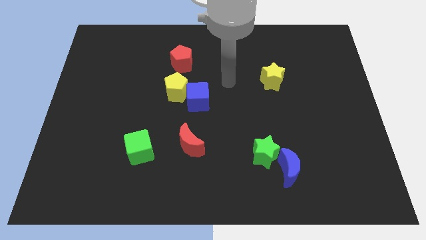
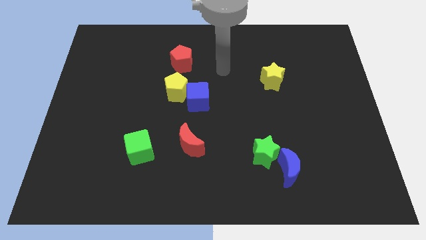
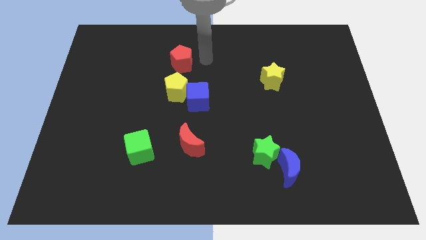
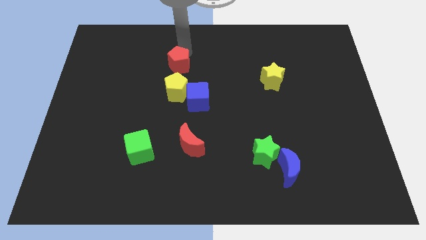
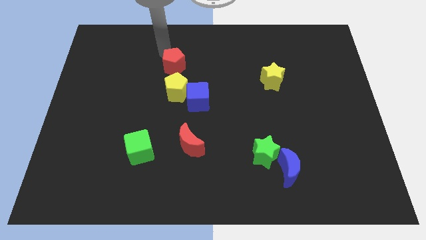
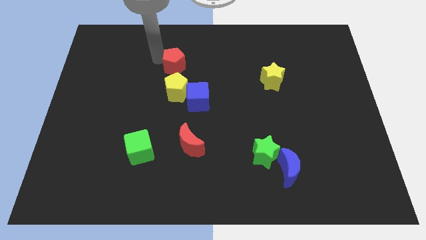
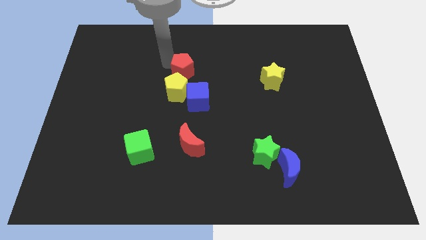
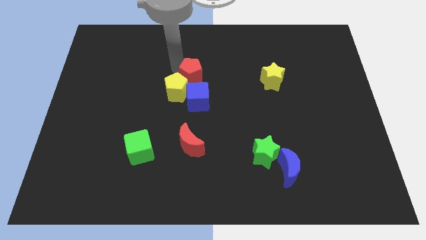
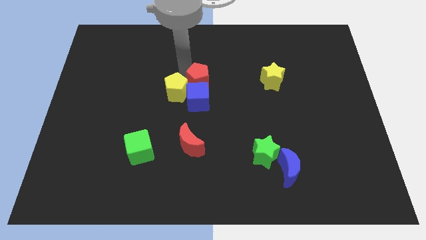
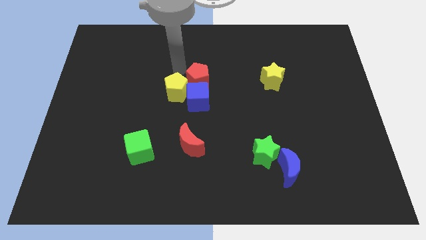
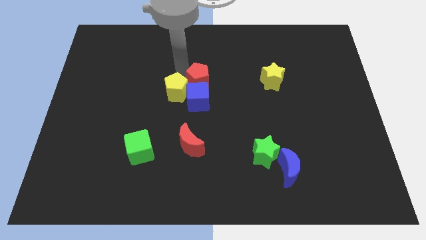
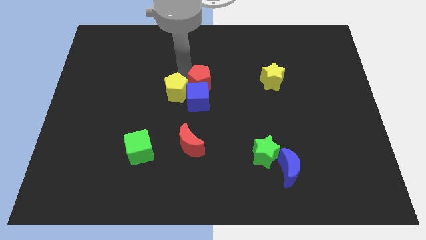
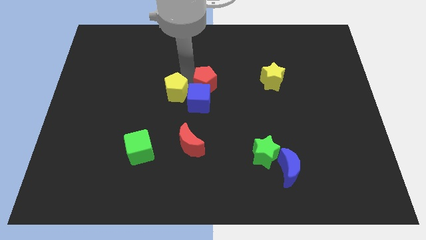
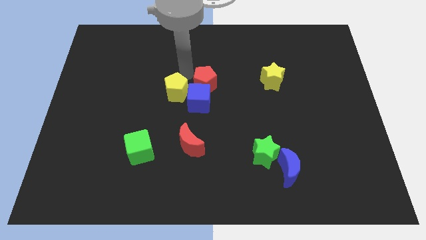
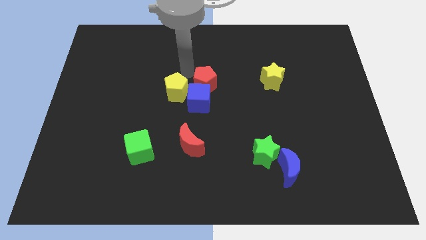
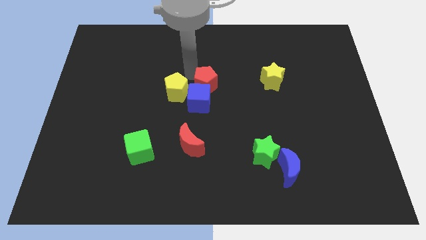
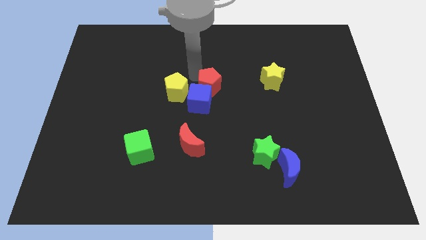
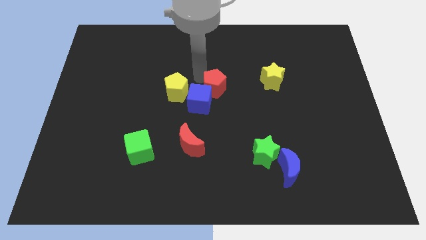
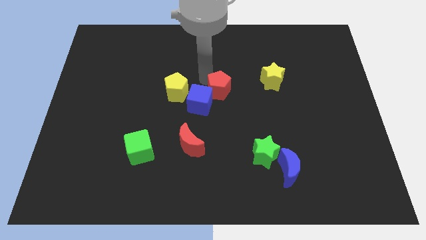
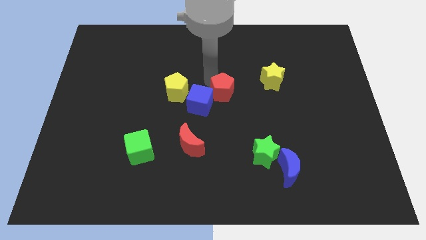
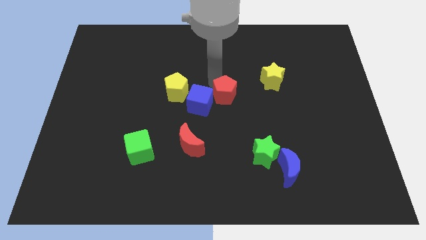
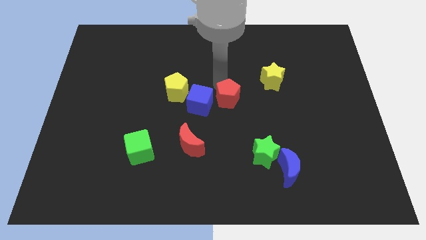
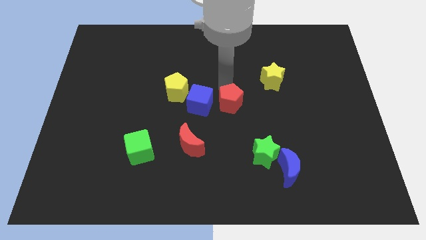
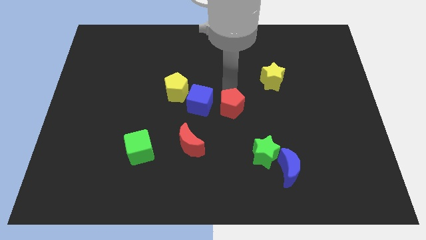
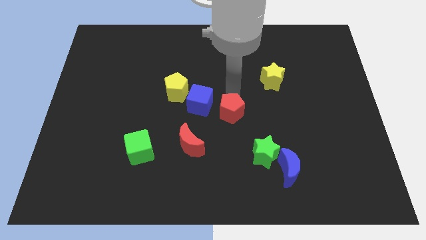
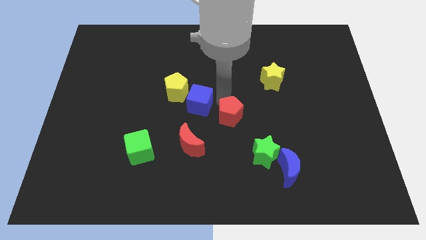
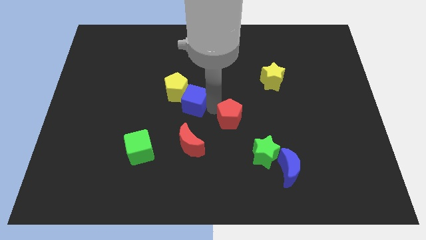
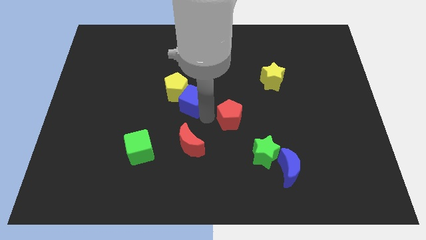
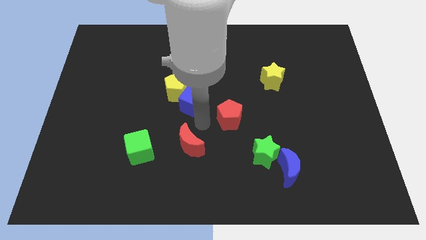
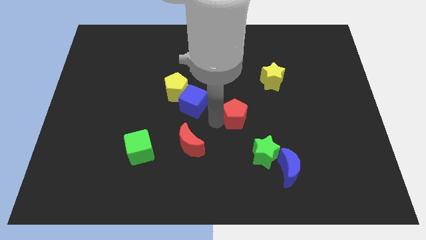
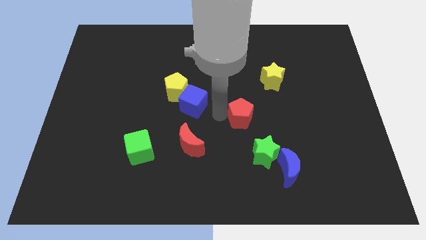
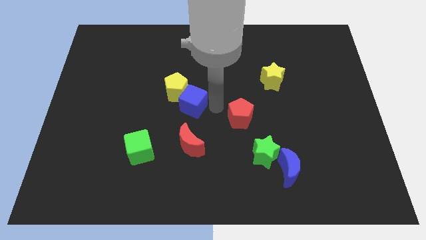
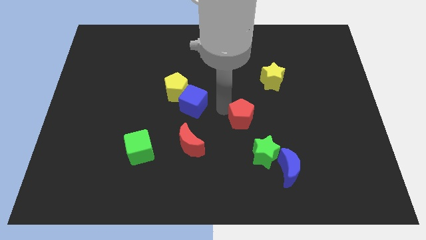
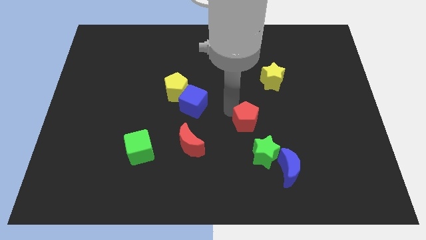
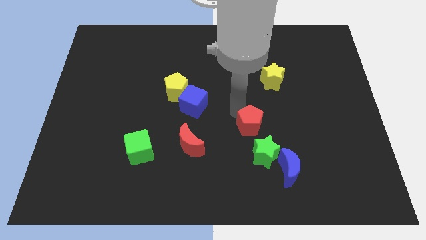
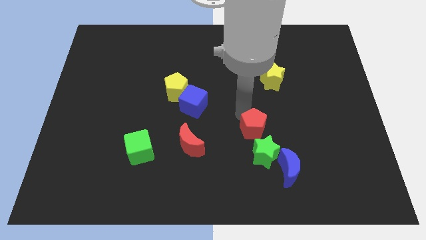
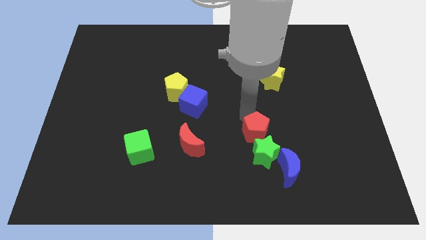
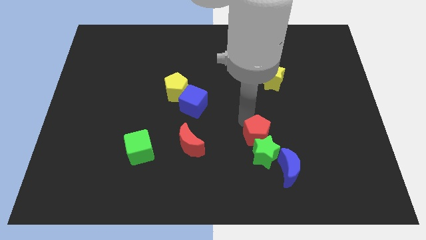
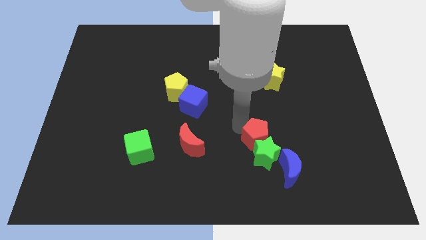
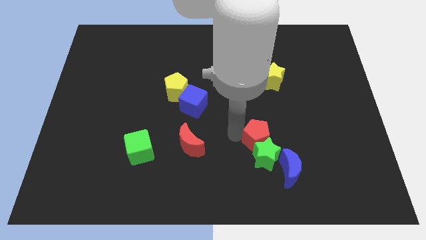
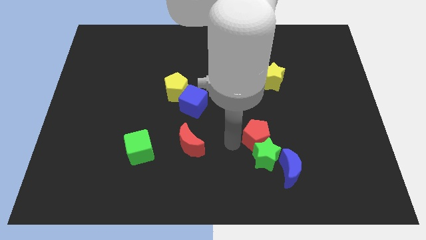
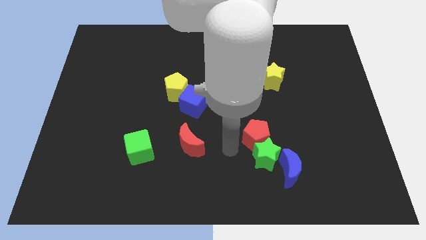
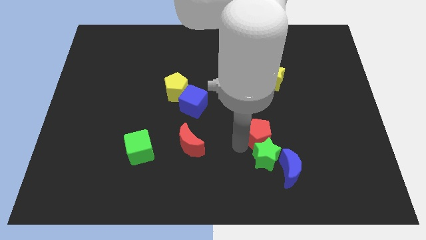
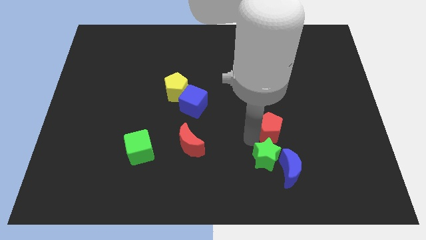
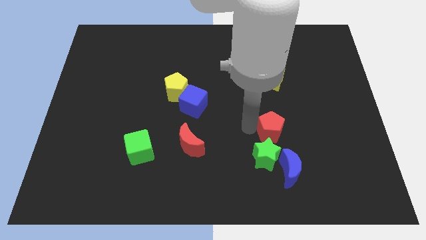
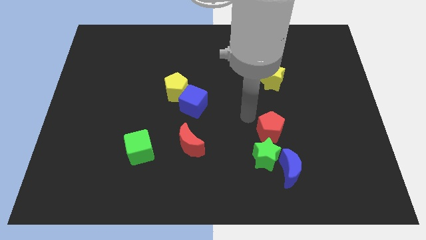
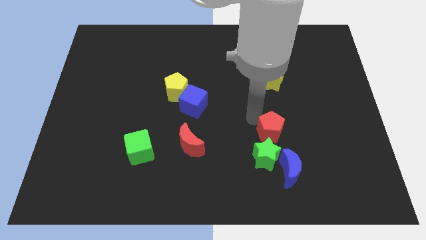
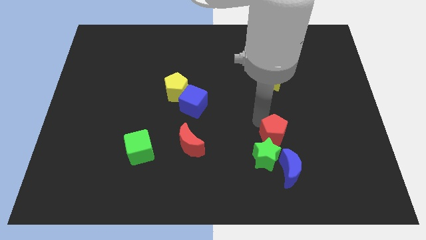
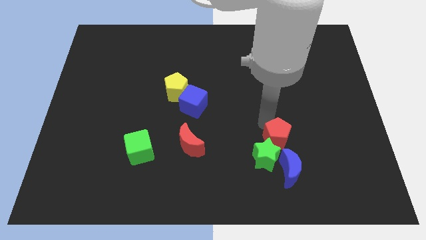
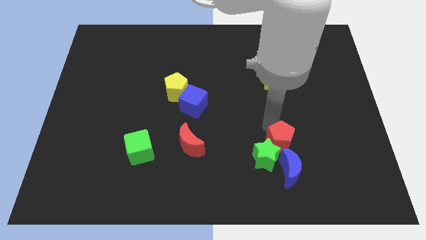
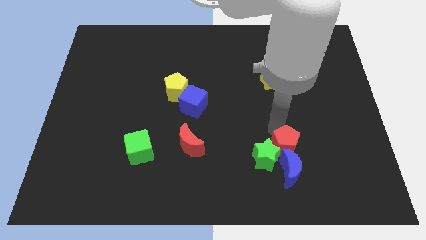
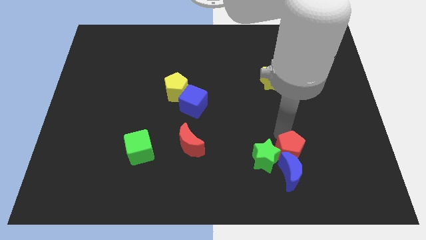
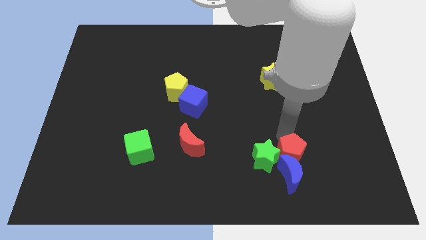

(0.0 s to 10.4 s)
slide the red pentagon to the bottom right of the green star

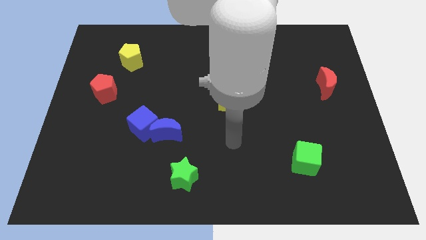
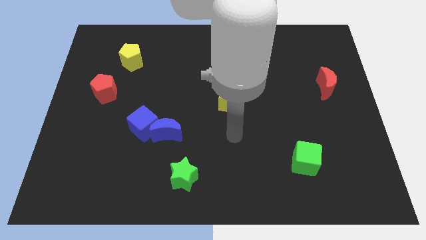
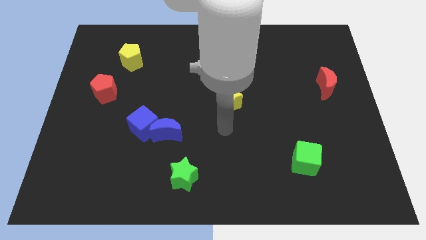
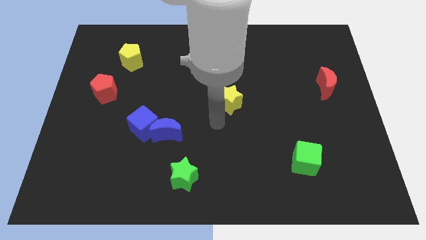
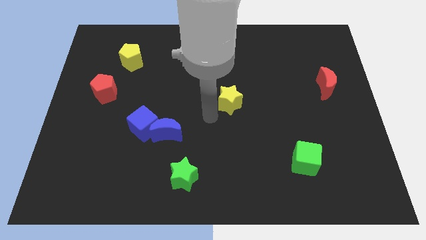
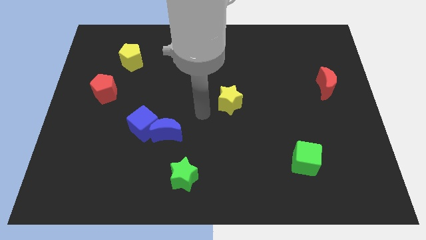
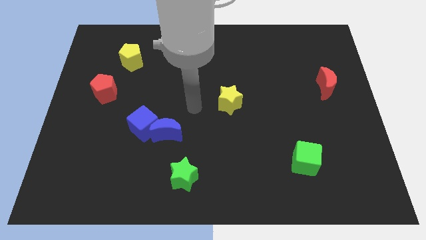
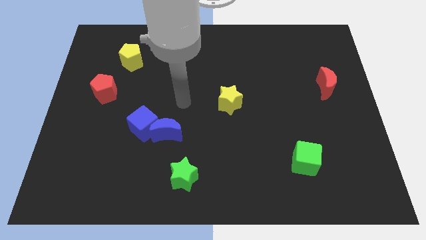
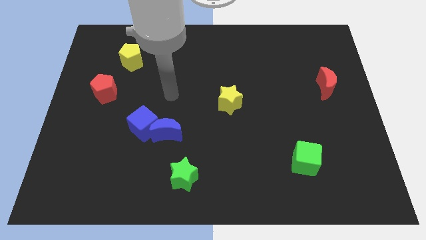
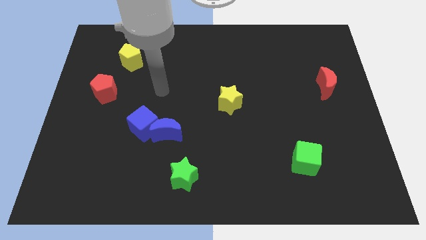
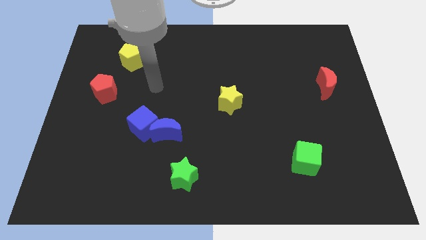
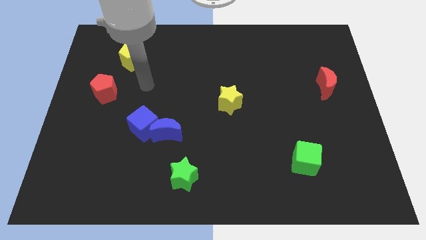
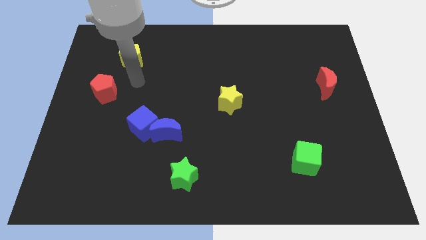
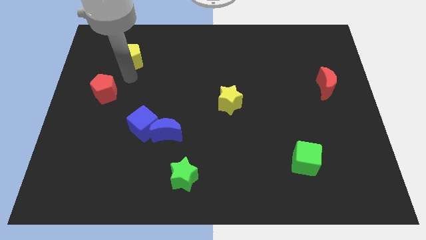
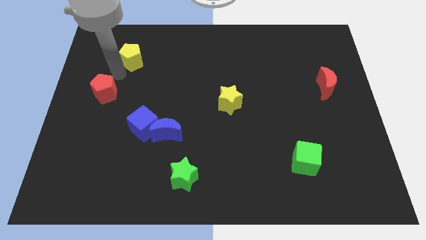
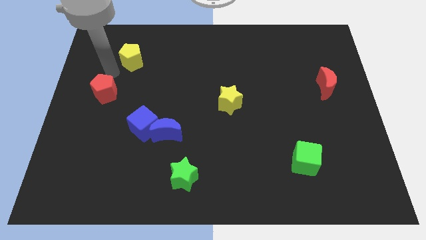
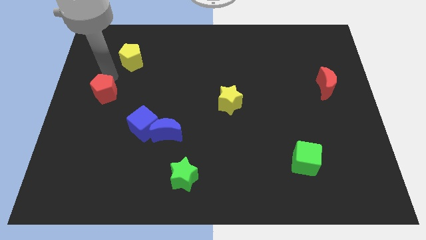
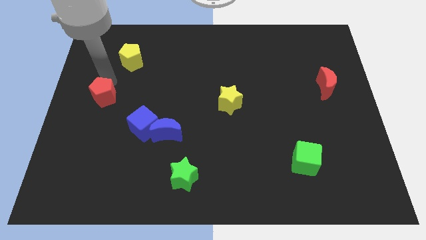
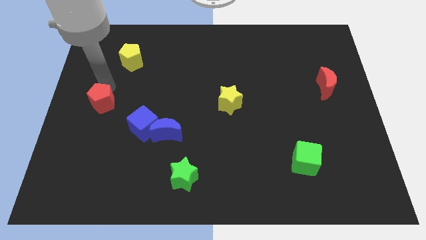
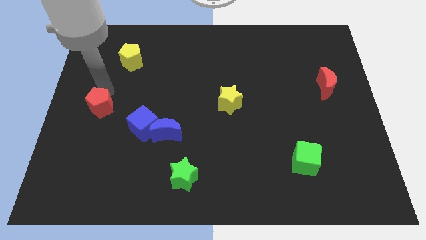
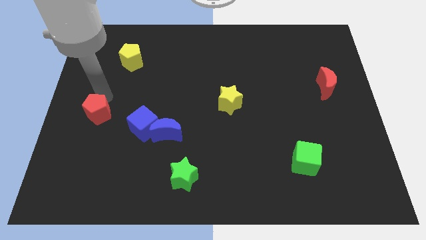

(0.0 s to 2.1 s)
push the red pentagon to the left side of the blue cube

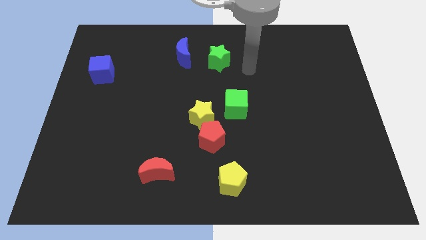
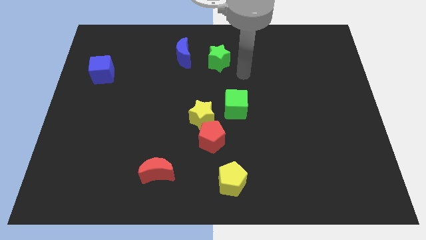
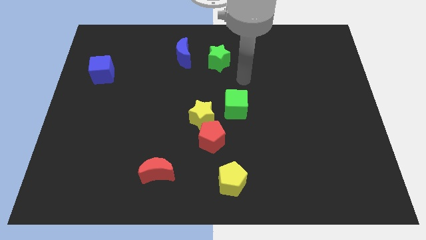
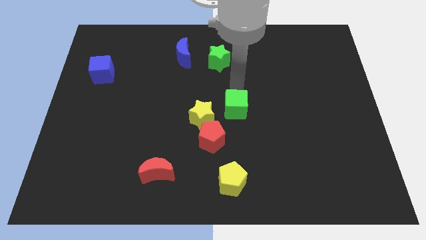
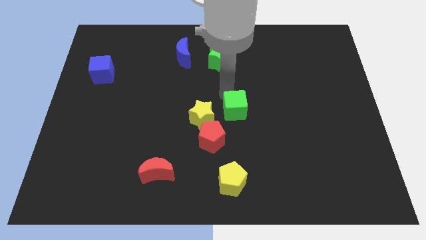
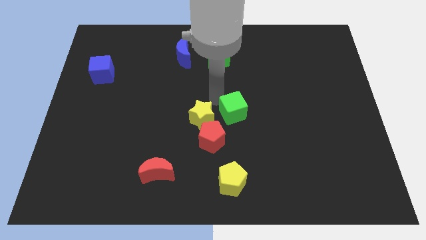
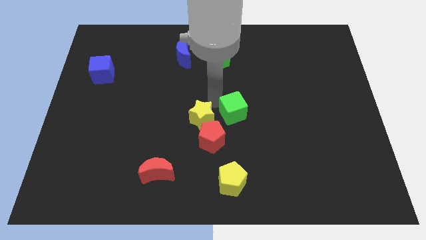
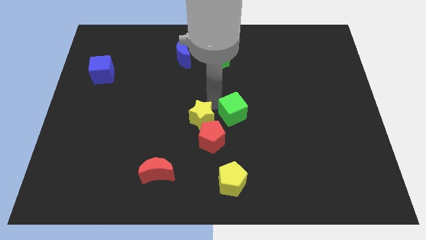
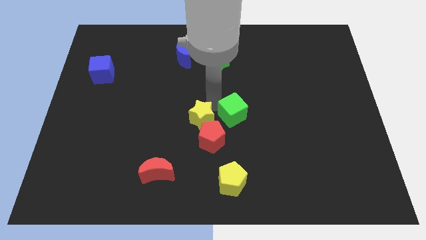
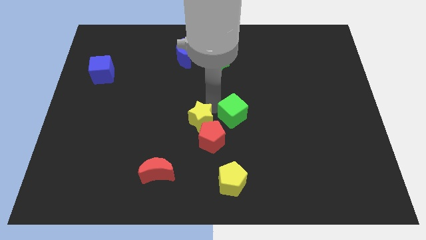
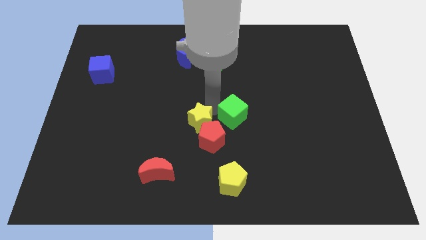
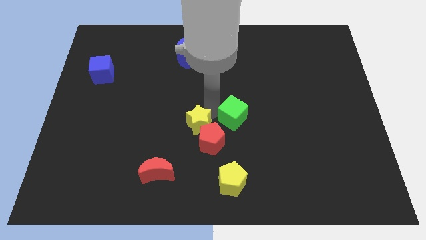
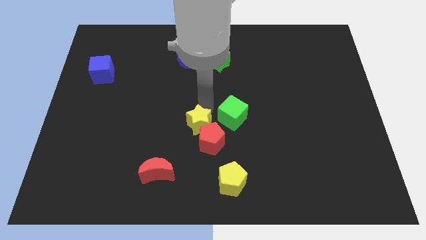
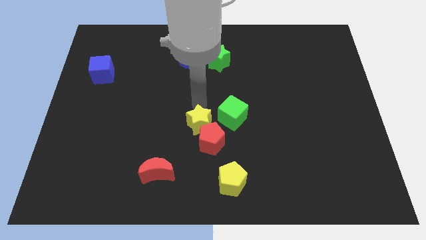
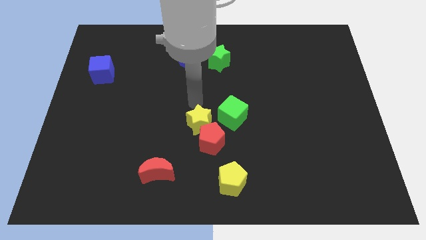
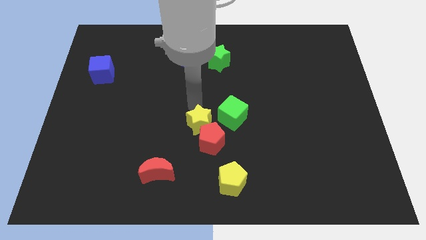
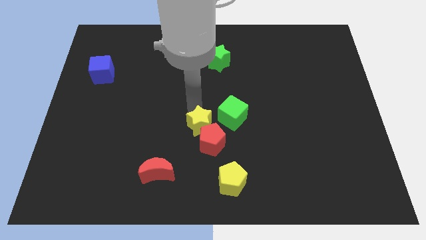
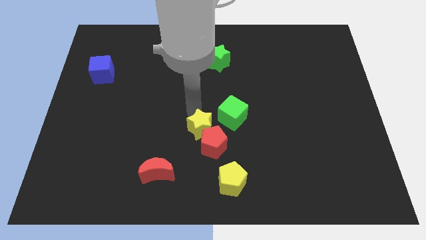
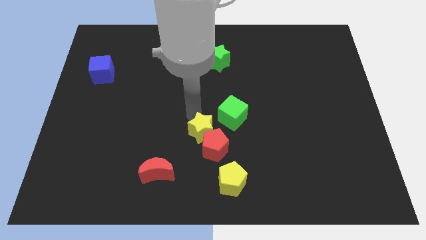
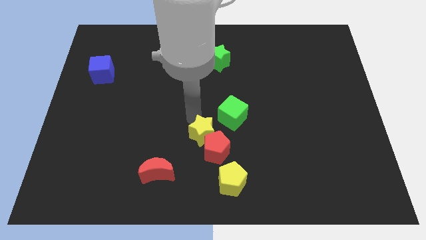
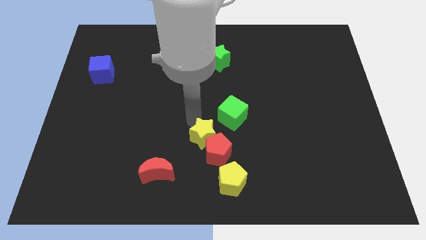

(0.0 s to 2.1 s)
slide the yellow star to the top left side of the yellow pentagon
